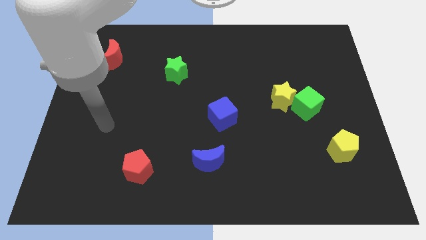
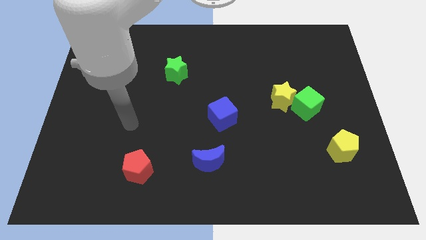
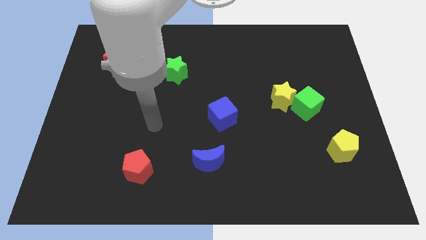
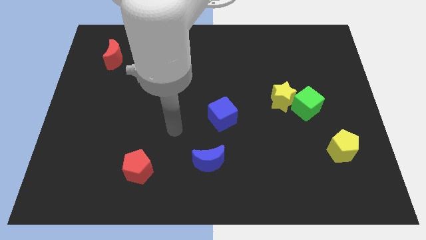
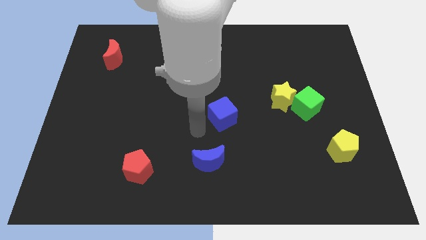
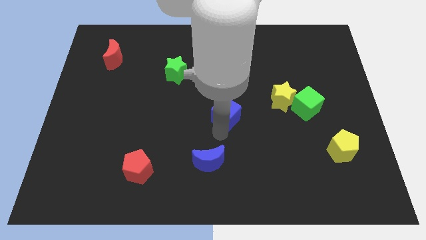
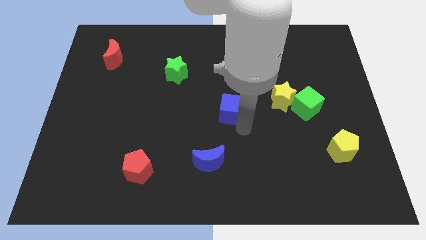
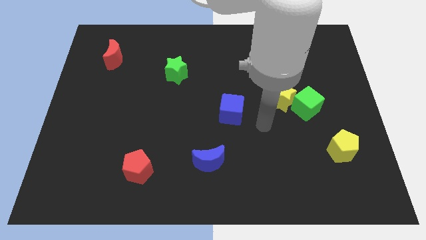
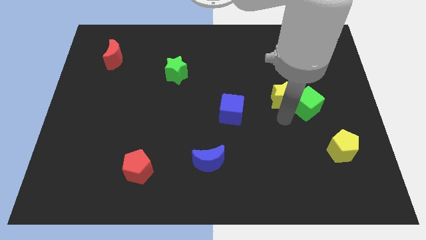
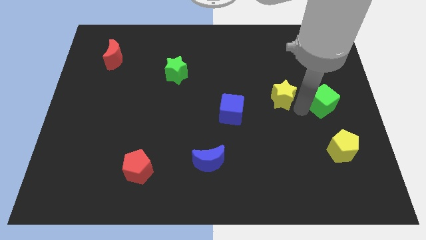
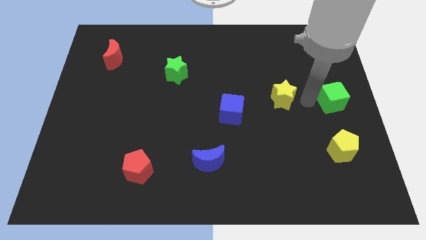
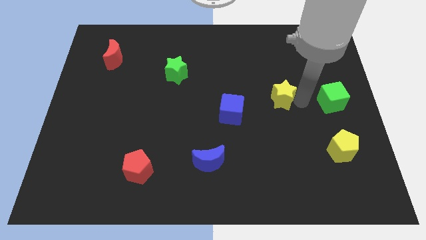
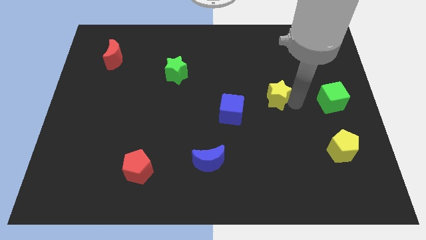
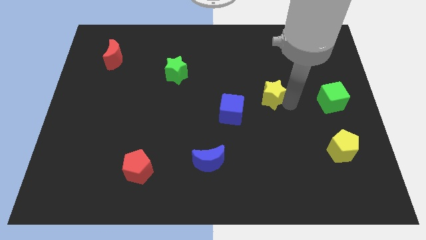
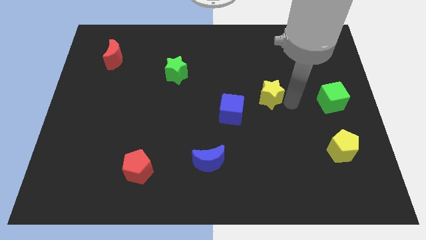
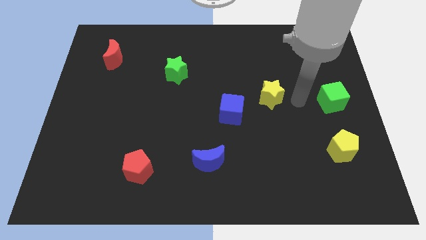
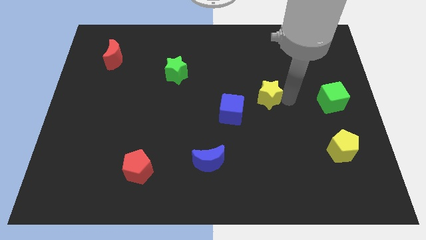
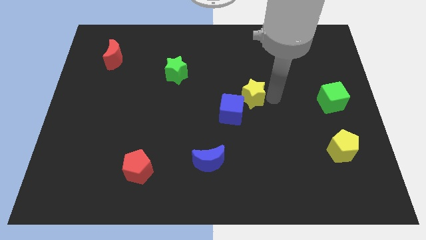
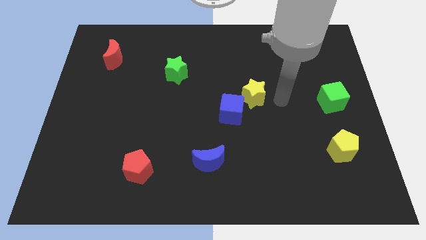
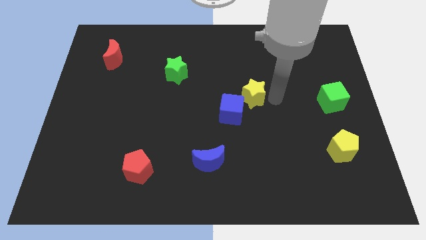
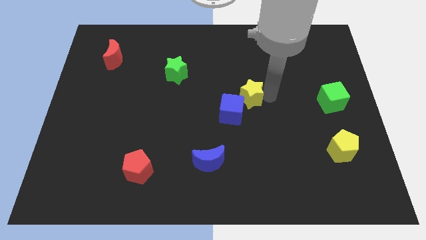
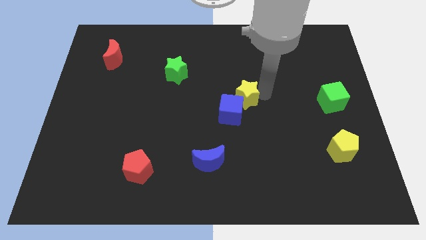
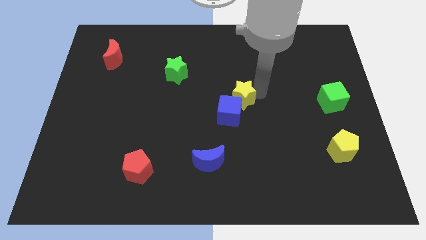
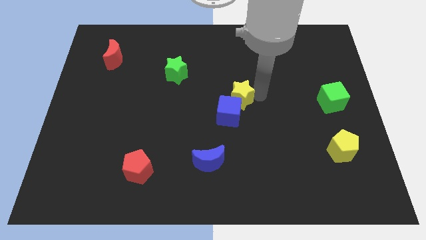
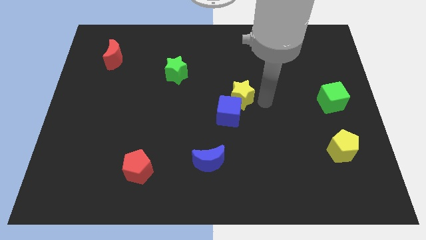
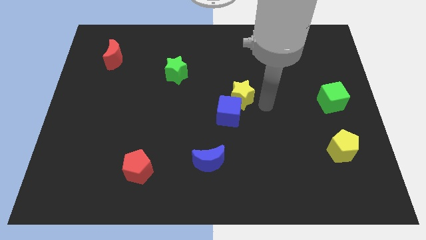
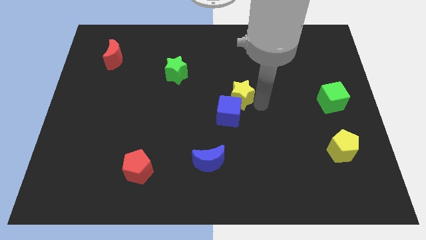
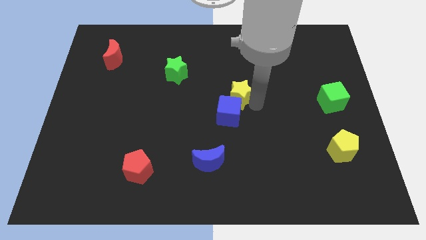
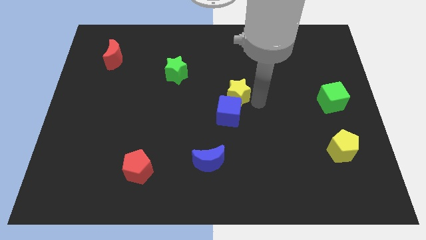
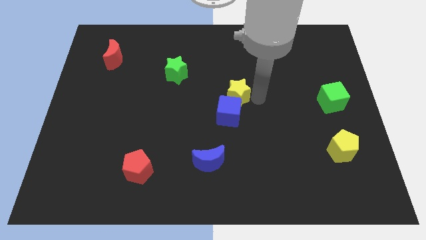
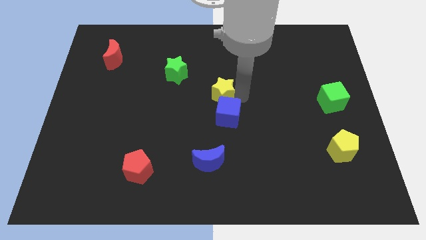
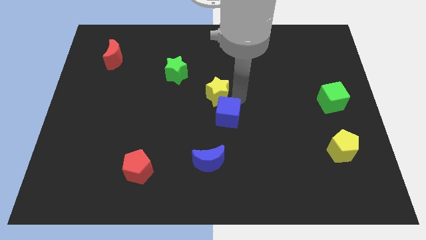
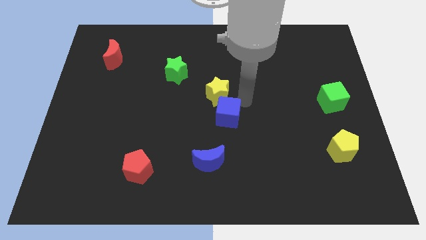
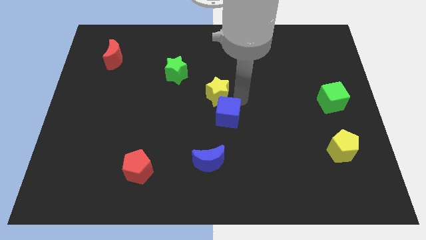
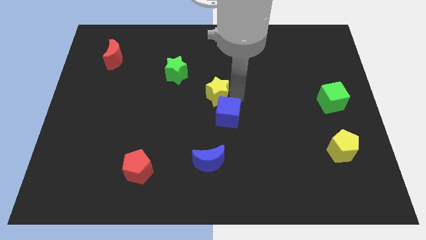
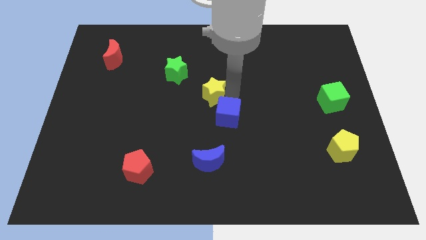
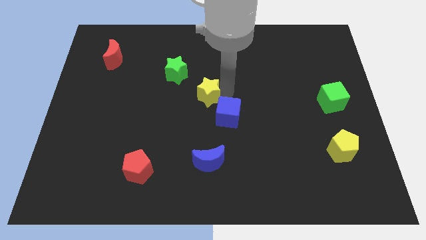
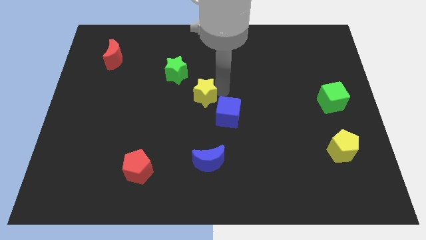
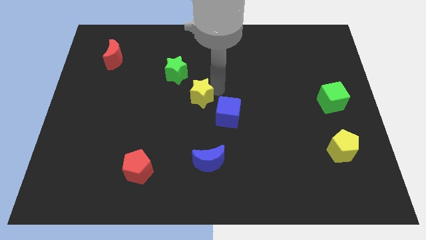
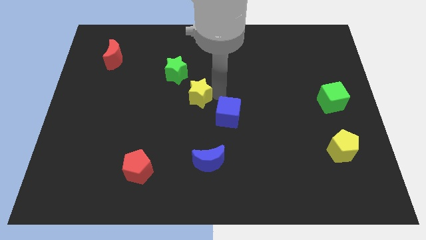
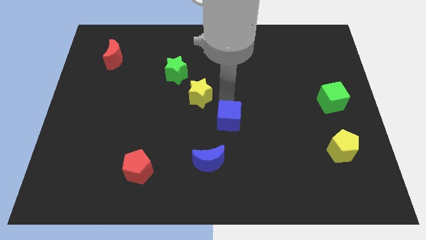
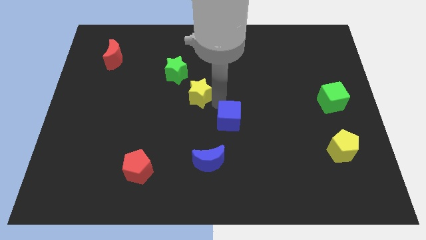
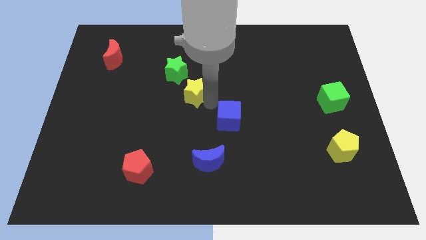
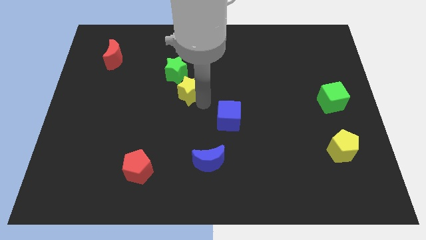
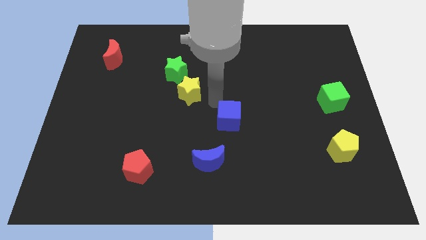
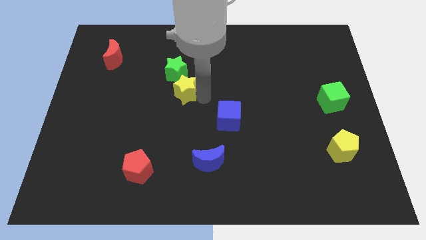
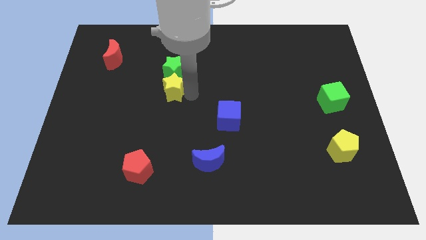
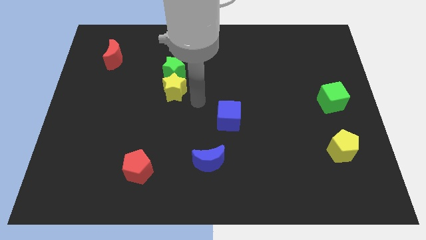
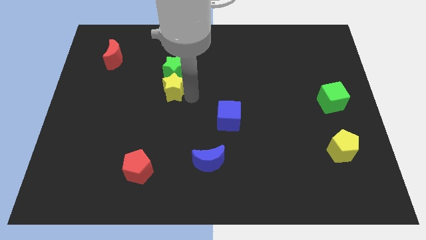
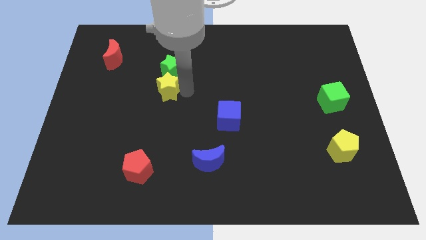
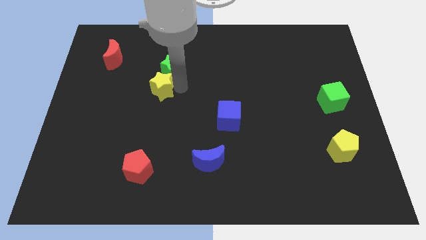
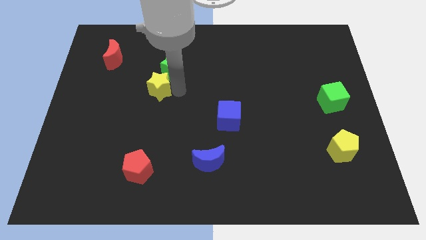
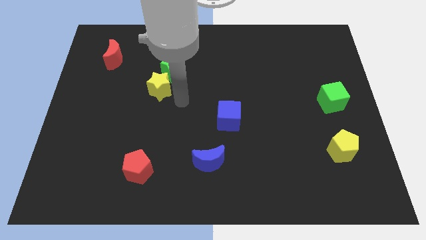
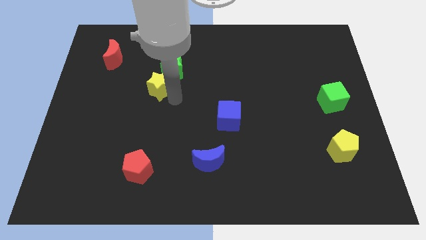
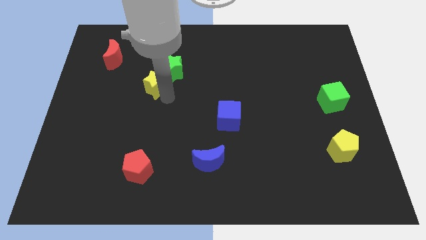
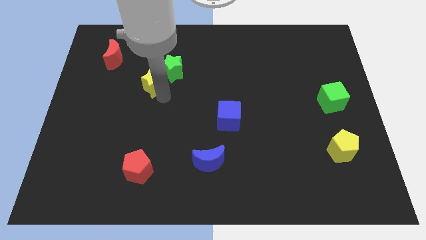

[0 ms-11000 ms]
slide the yellow star just left of the green star

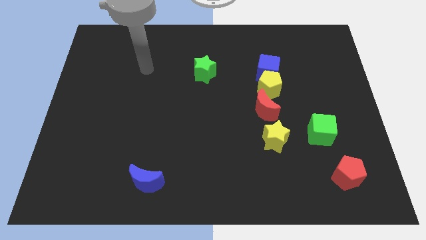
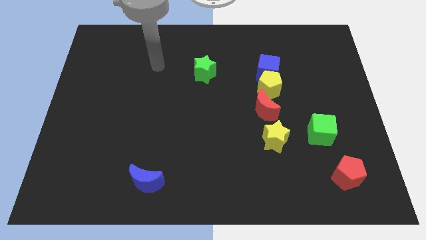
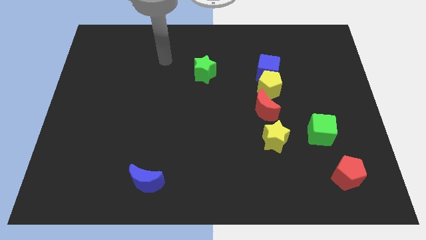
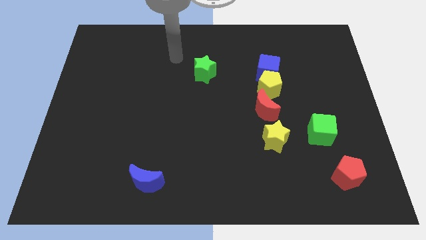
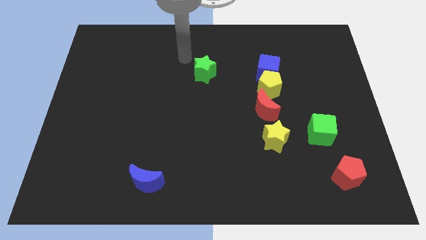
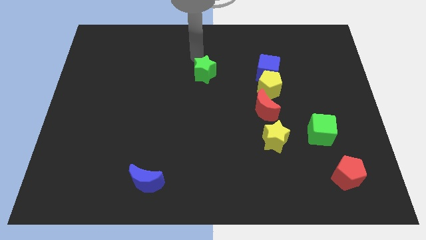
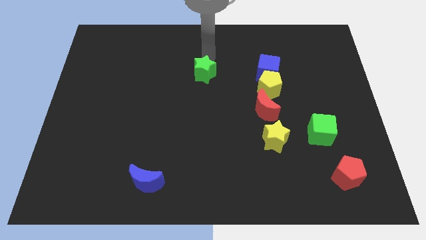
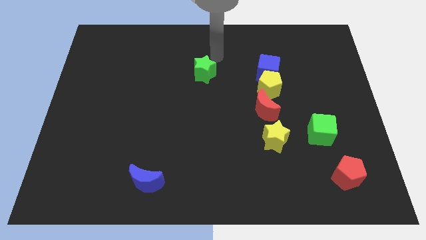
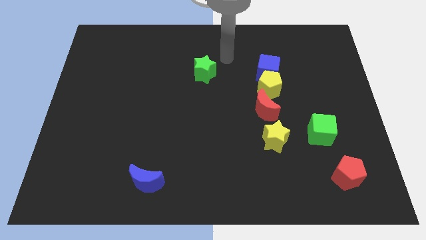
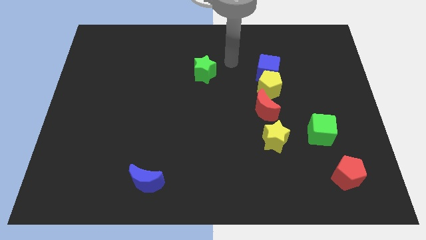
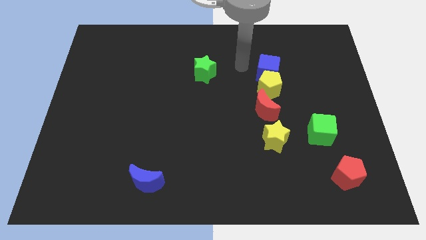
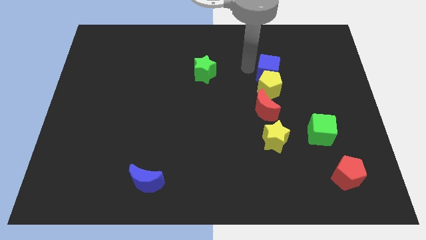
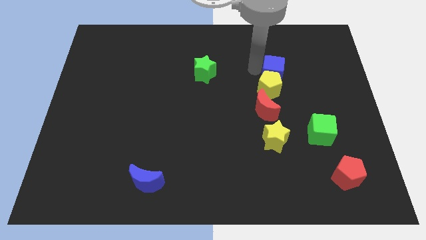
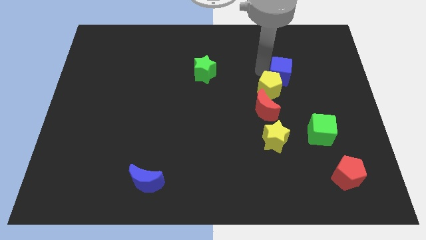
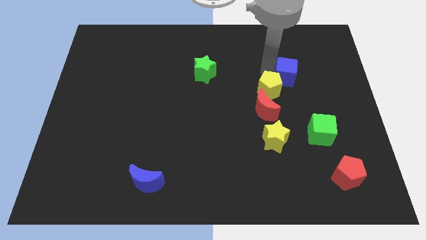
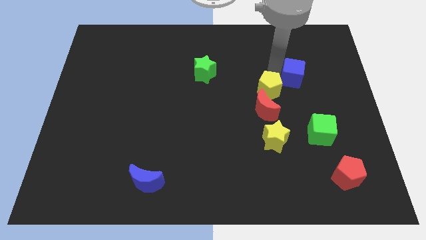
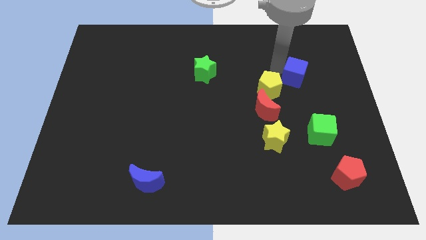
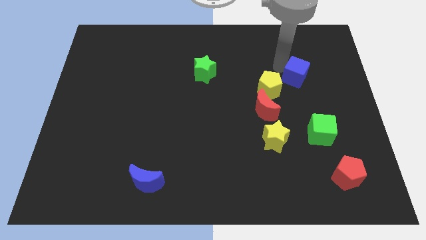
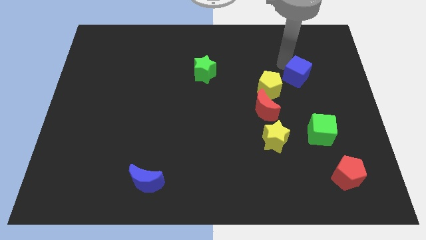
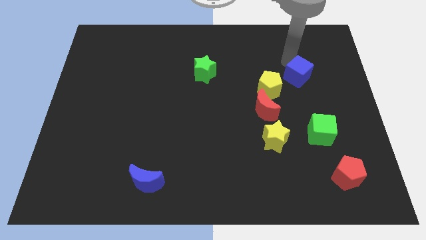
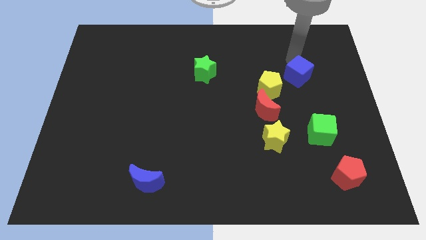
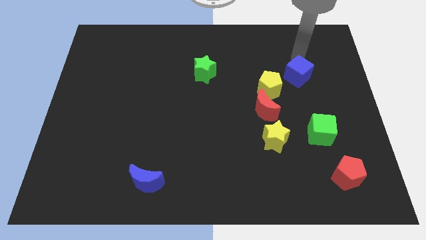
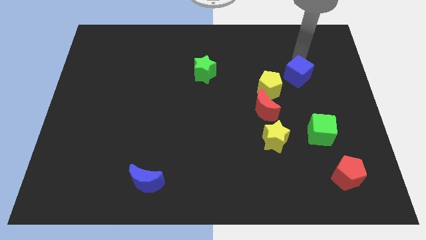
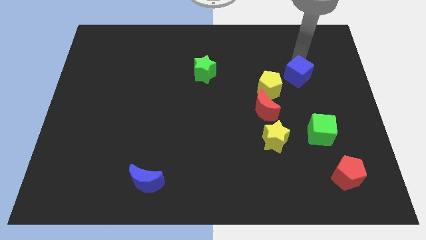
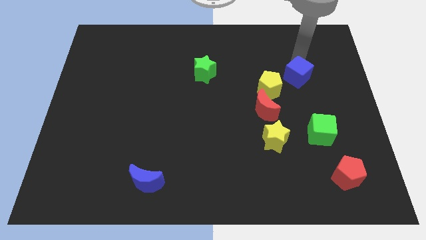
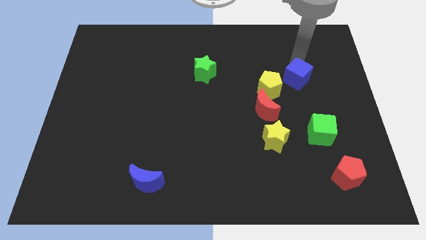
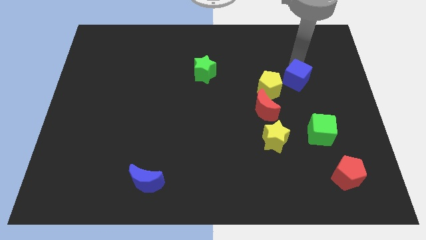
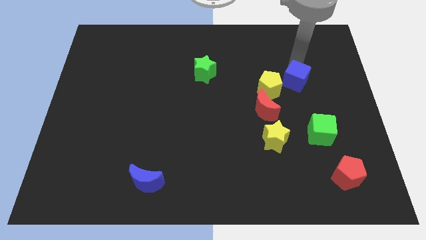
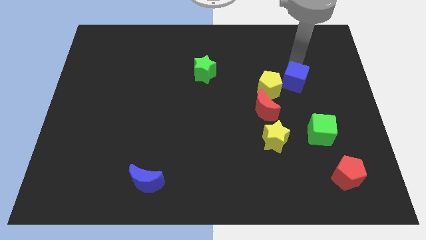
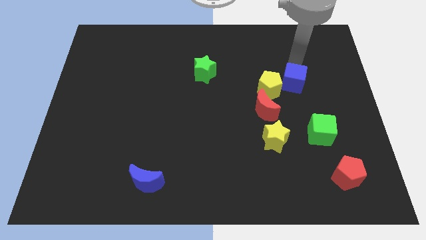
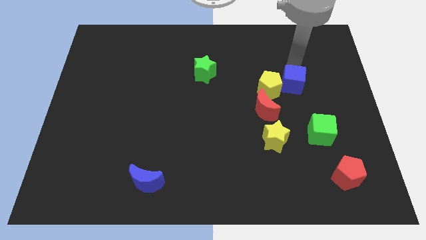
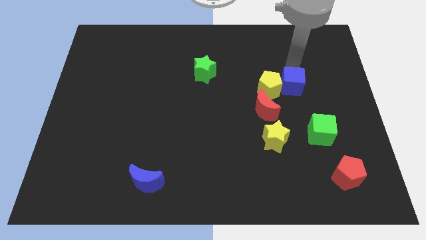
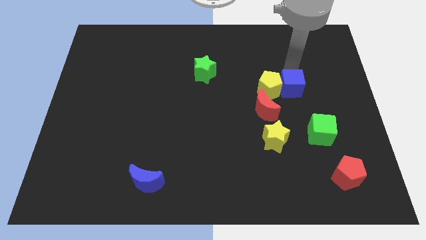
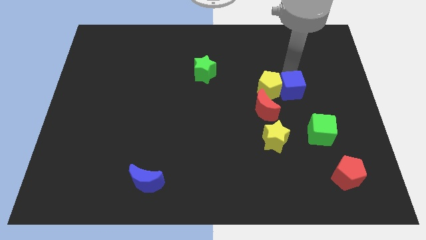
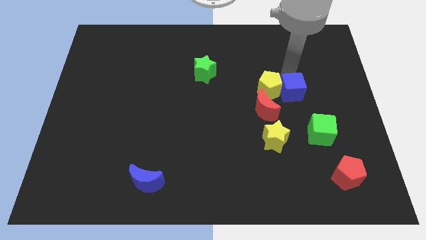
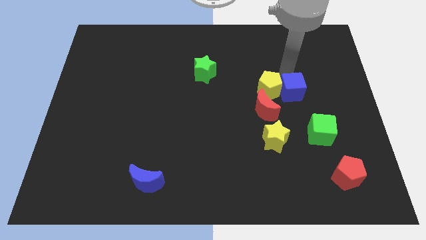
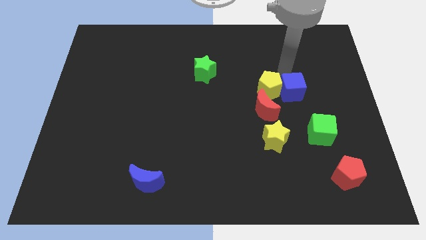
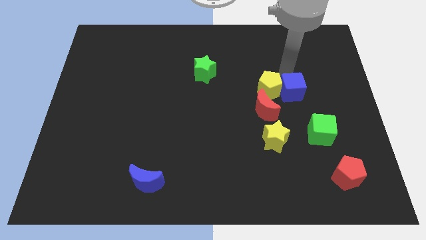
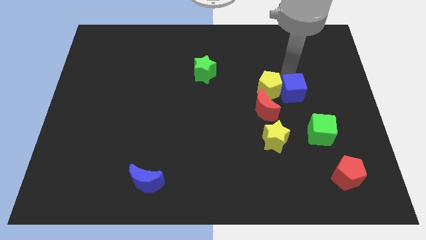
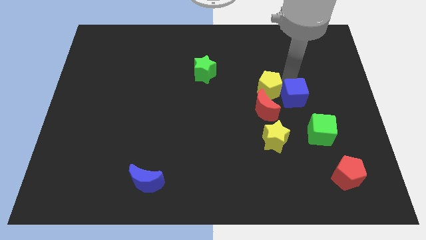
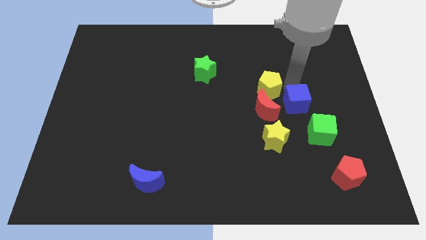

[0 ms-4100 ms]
put the blue cube diagonally up and to the right of the yellow star
